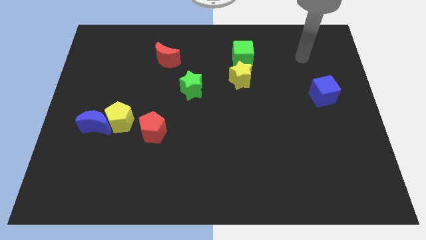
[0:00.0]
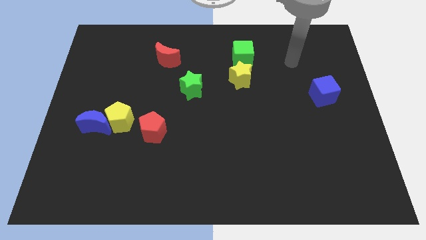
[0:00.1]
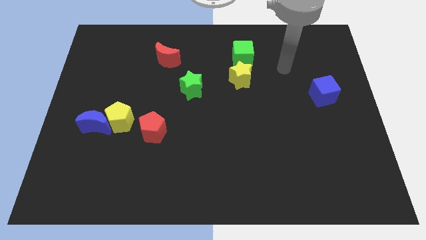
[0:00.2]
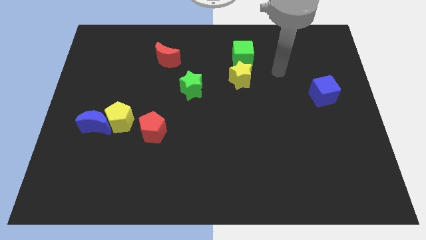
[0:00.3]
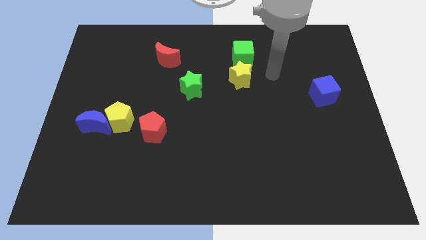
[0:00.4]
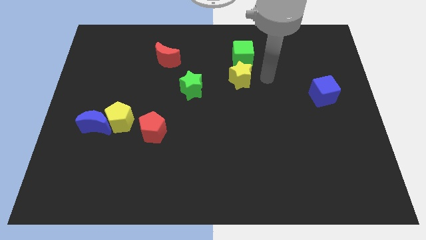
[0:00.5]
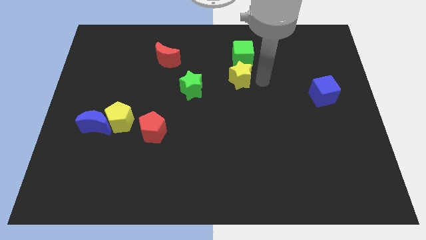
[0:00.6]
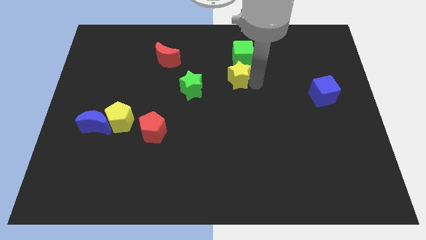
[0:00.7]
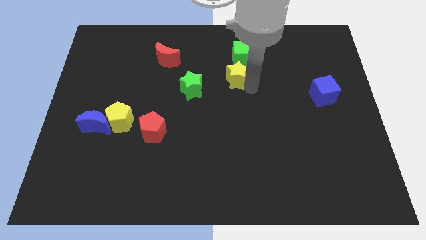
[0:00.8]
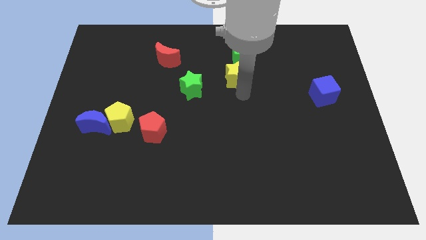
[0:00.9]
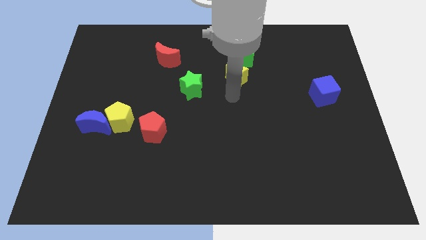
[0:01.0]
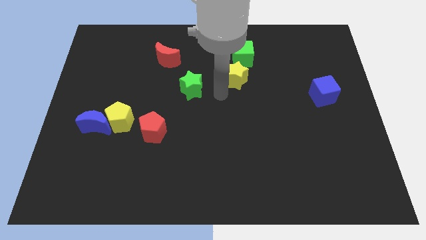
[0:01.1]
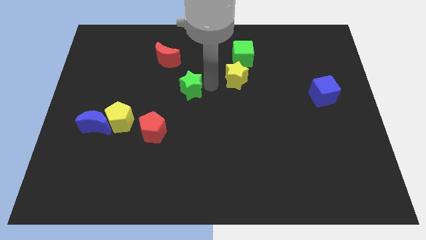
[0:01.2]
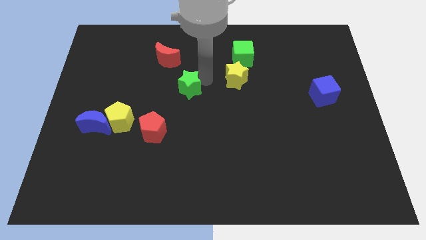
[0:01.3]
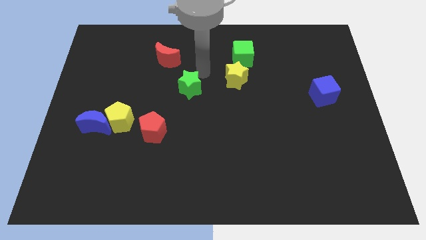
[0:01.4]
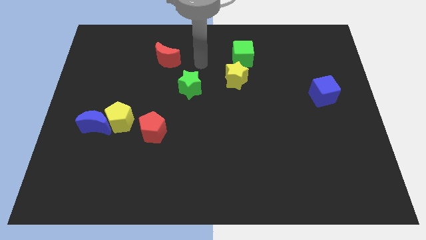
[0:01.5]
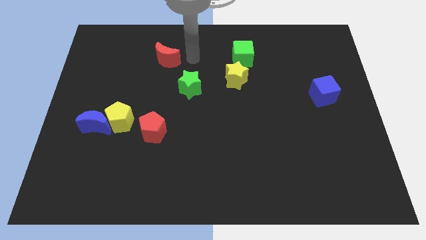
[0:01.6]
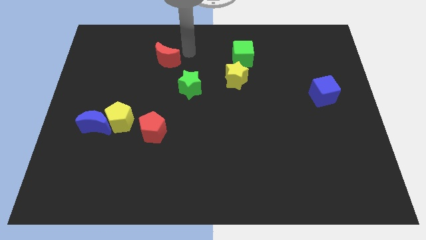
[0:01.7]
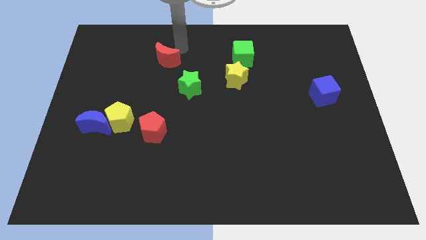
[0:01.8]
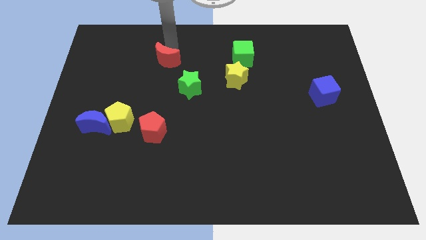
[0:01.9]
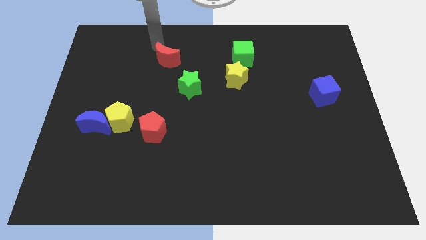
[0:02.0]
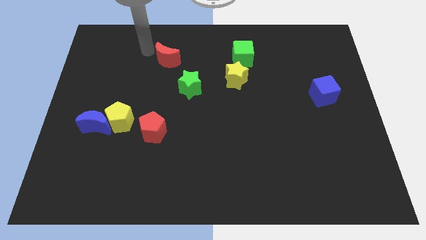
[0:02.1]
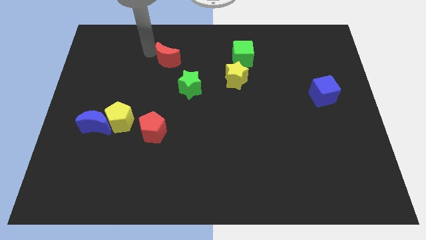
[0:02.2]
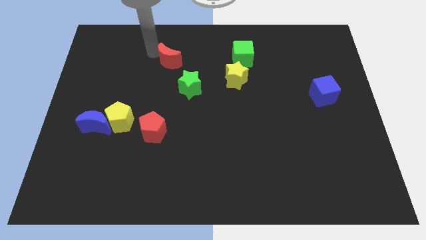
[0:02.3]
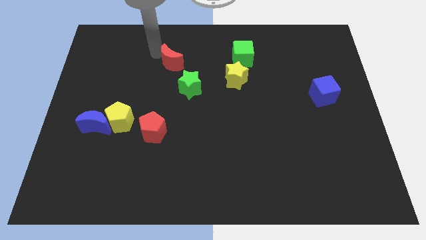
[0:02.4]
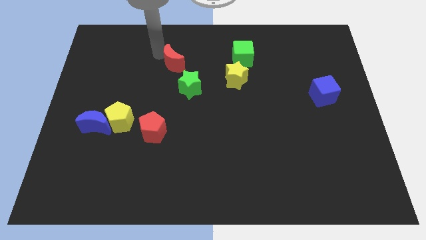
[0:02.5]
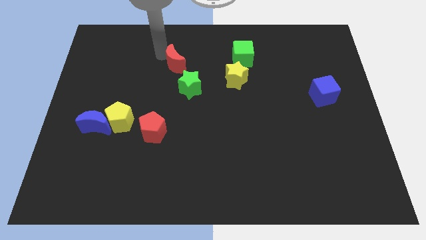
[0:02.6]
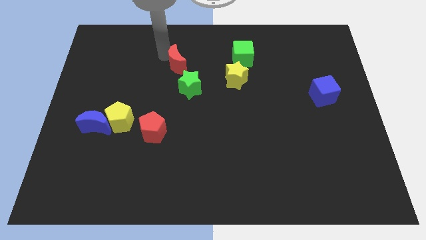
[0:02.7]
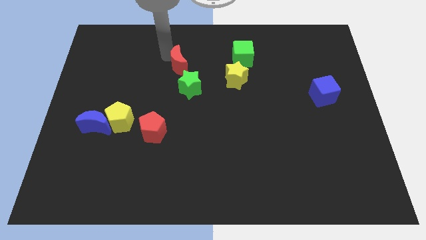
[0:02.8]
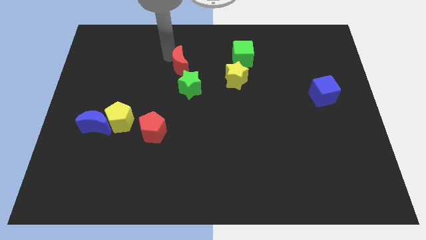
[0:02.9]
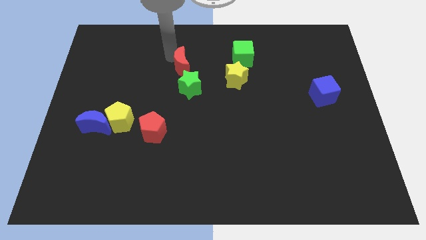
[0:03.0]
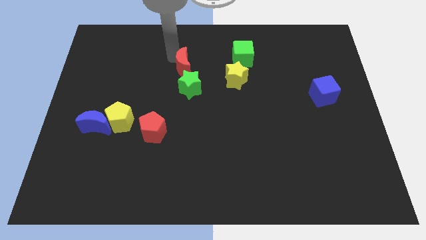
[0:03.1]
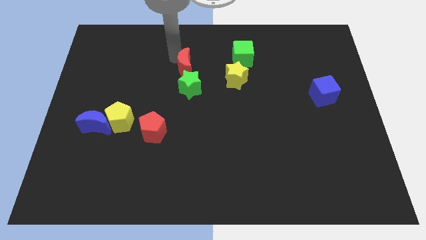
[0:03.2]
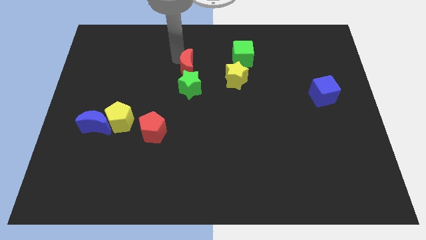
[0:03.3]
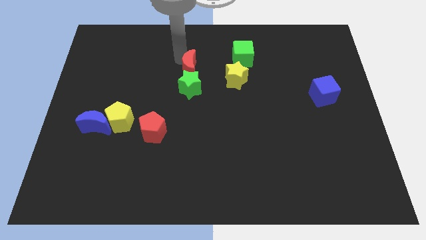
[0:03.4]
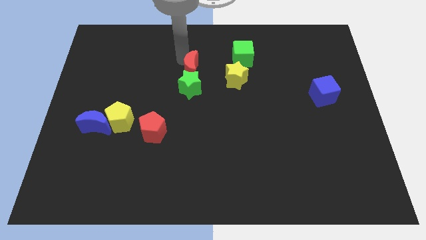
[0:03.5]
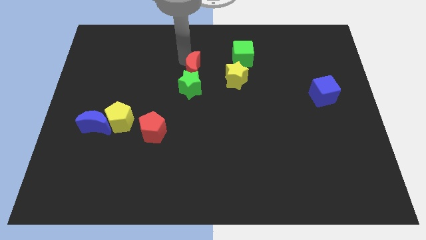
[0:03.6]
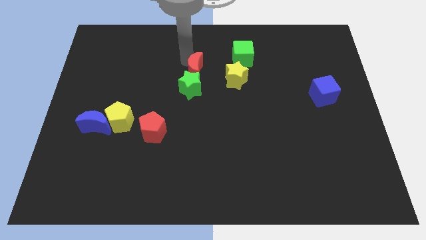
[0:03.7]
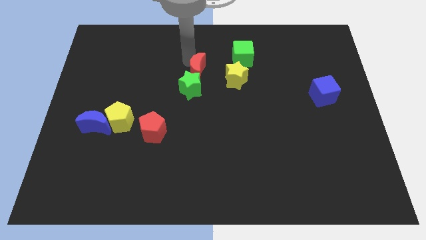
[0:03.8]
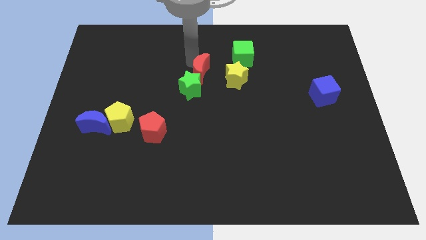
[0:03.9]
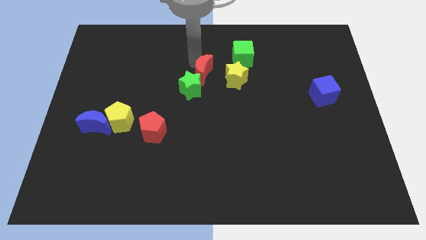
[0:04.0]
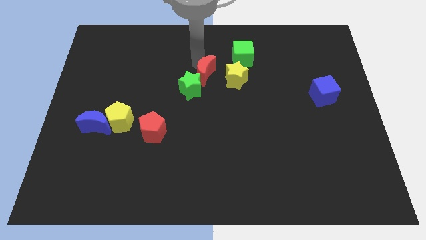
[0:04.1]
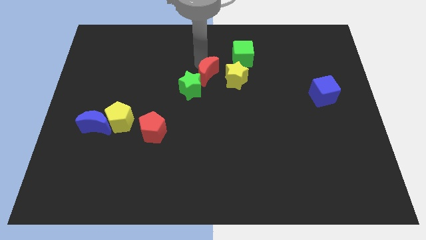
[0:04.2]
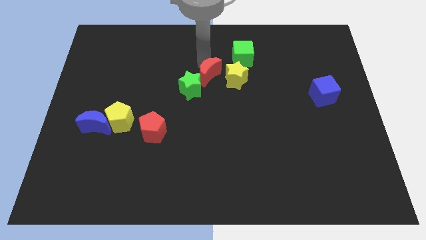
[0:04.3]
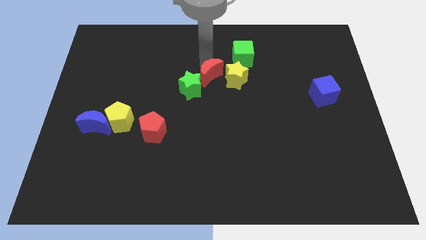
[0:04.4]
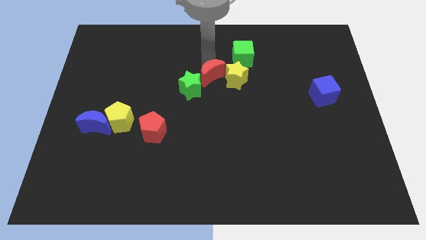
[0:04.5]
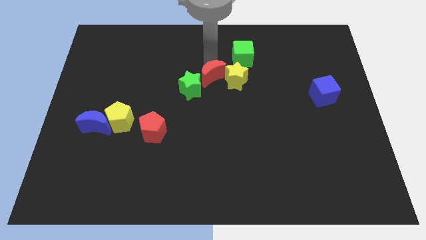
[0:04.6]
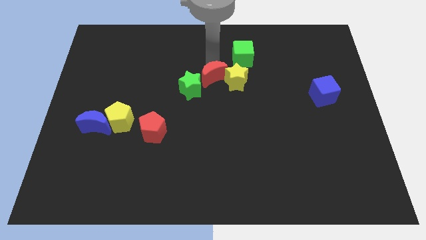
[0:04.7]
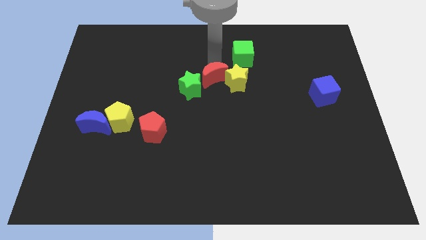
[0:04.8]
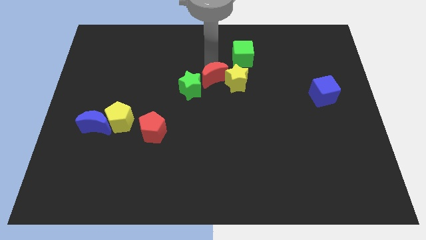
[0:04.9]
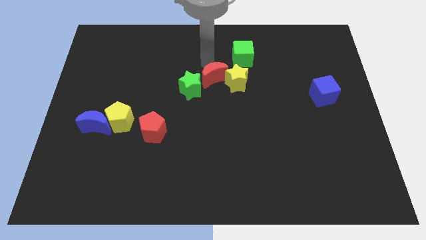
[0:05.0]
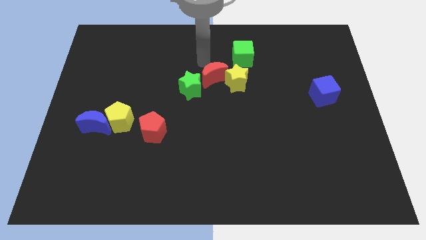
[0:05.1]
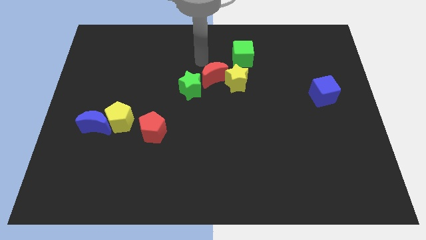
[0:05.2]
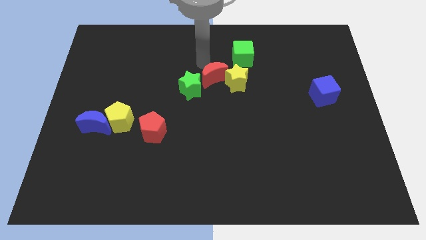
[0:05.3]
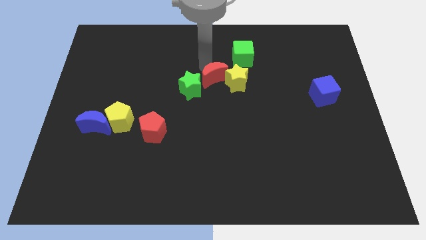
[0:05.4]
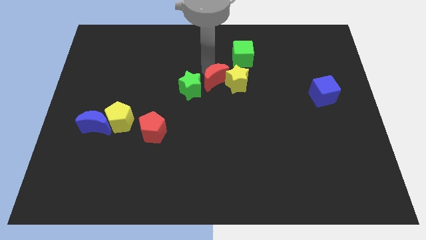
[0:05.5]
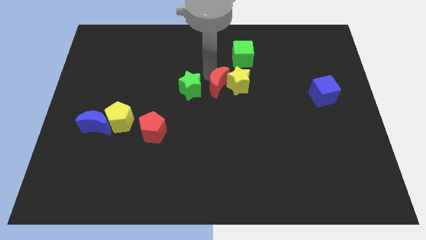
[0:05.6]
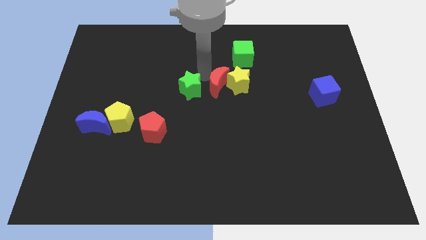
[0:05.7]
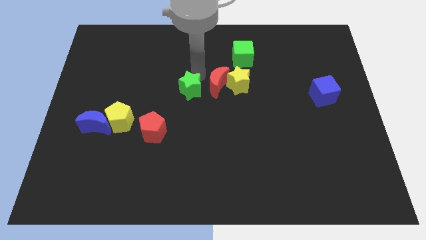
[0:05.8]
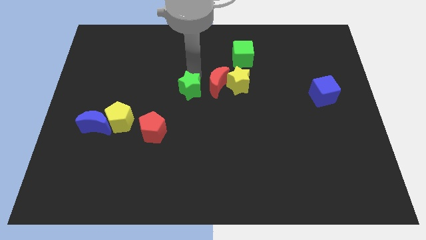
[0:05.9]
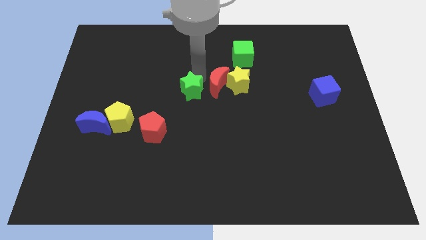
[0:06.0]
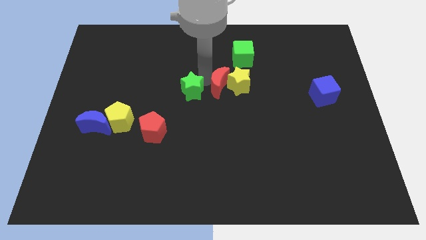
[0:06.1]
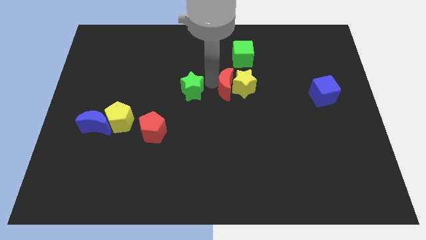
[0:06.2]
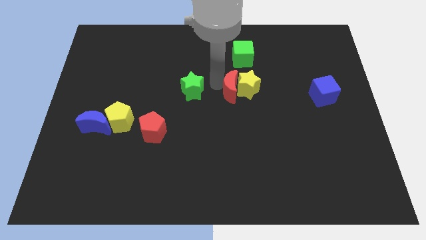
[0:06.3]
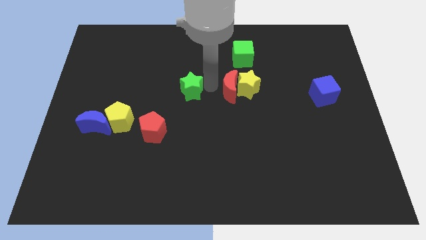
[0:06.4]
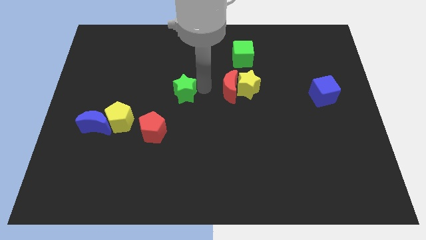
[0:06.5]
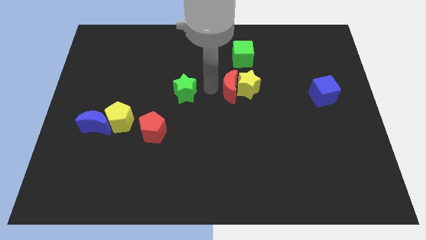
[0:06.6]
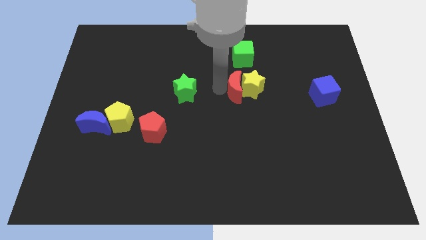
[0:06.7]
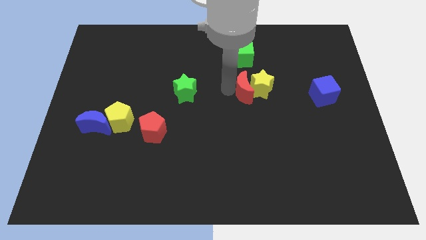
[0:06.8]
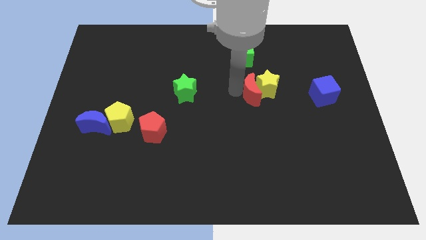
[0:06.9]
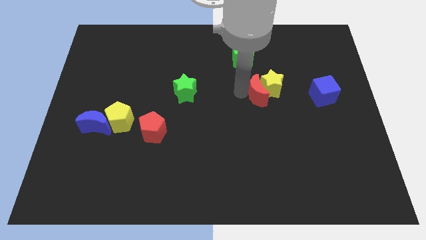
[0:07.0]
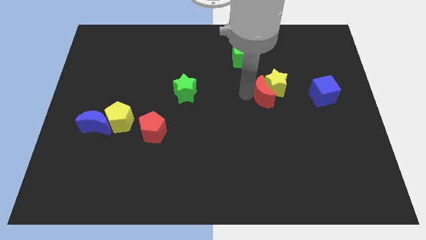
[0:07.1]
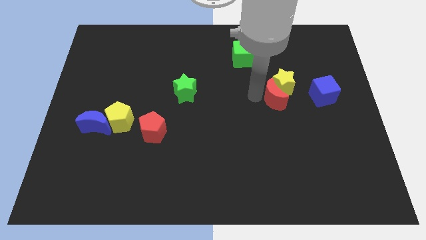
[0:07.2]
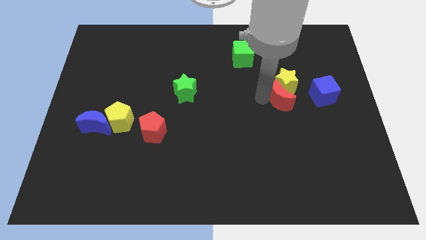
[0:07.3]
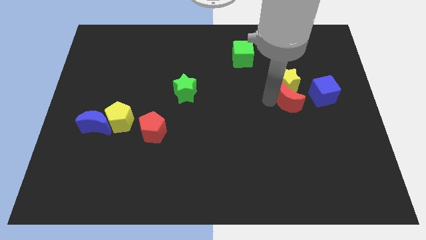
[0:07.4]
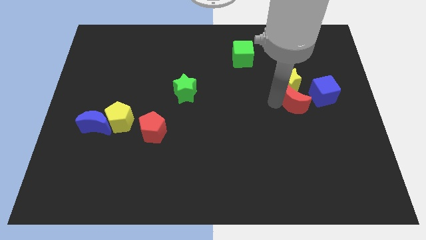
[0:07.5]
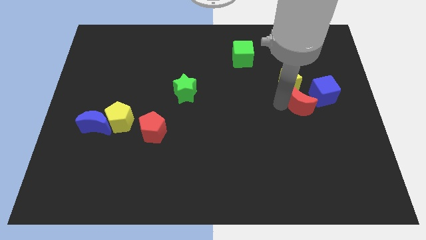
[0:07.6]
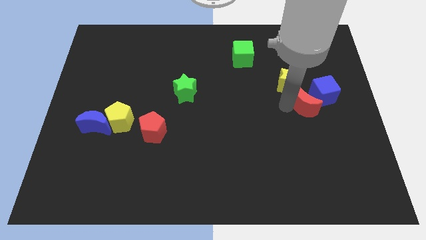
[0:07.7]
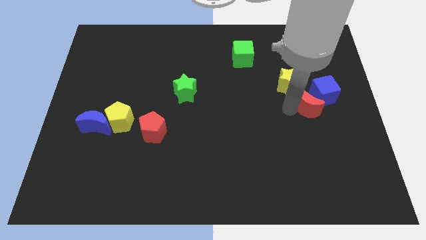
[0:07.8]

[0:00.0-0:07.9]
put the red moon towards the blue cube
